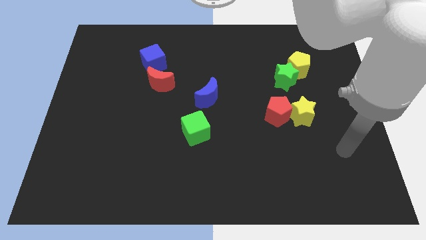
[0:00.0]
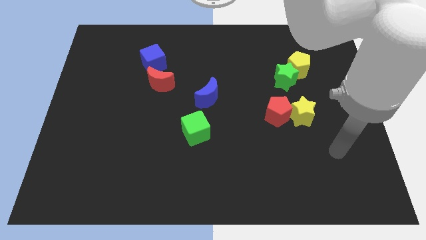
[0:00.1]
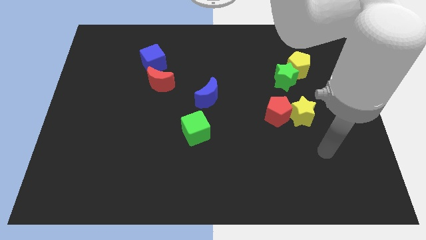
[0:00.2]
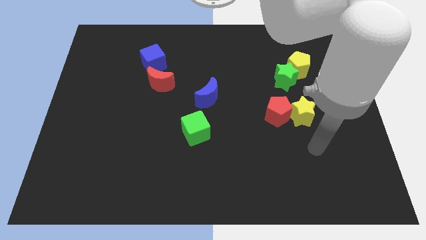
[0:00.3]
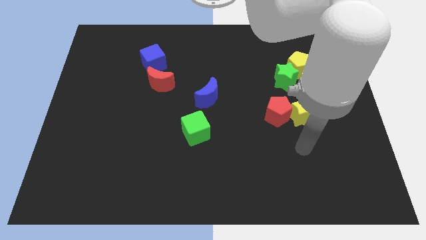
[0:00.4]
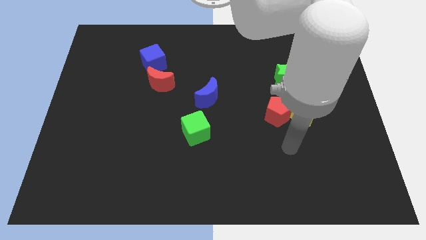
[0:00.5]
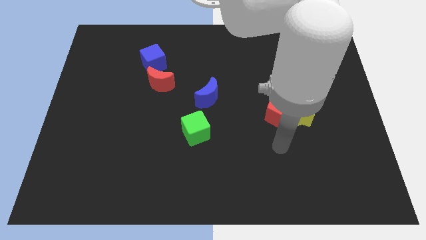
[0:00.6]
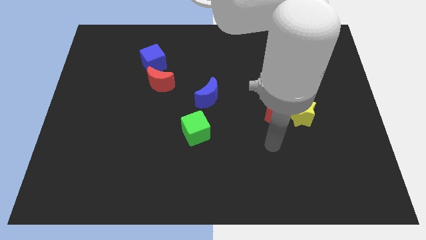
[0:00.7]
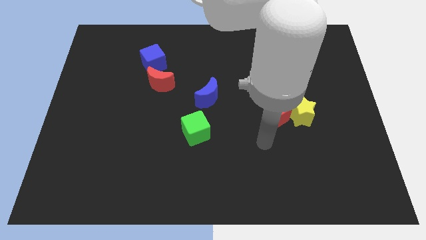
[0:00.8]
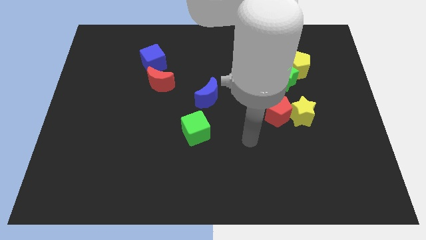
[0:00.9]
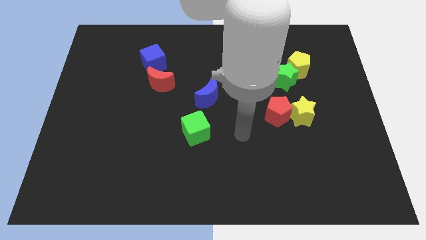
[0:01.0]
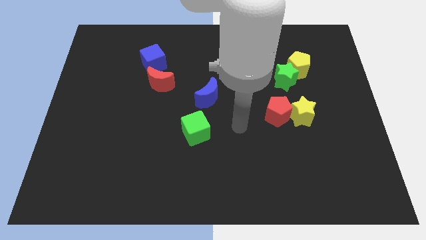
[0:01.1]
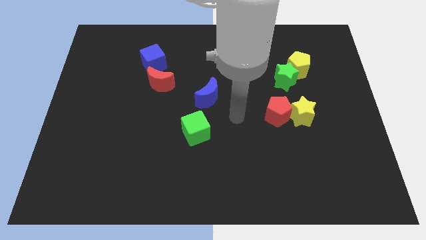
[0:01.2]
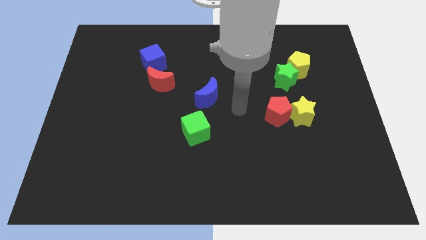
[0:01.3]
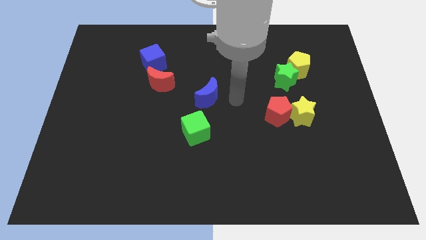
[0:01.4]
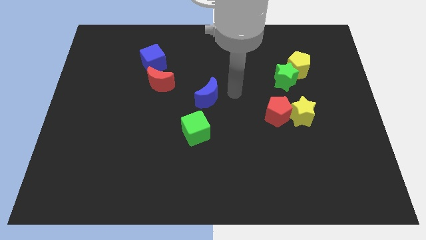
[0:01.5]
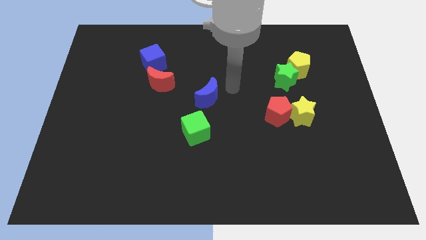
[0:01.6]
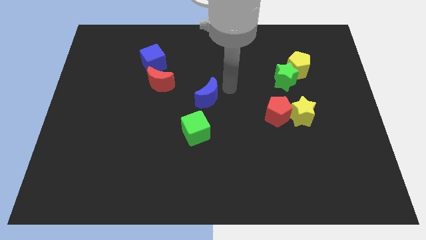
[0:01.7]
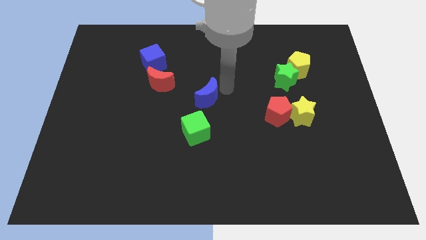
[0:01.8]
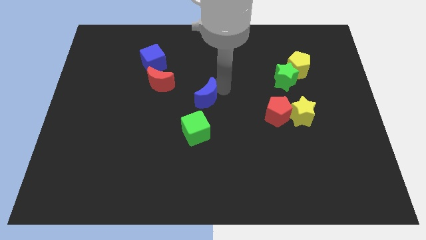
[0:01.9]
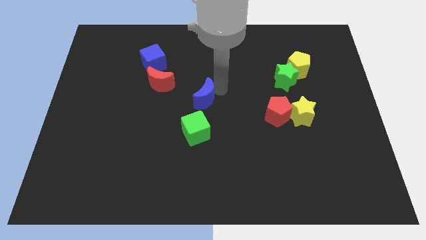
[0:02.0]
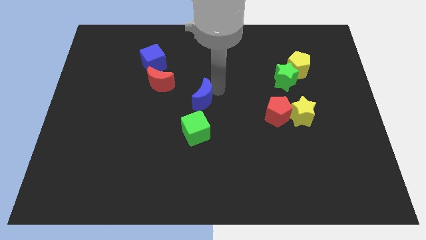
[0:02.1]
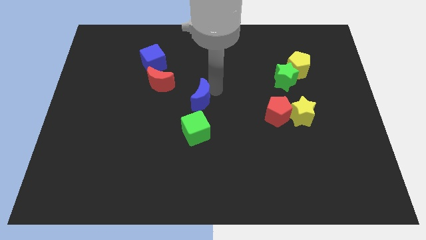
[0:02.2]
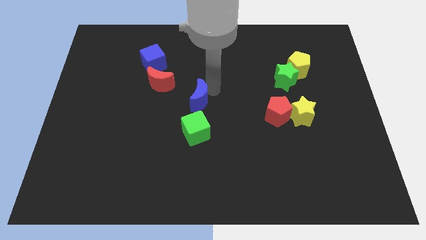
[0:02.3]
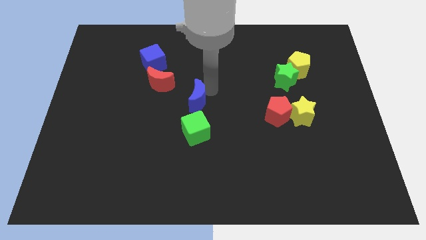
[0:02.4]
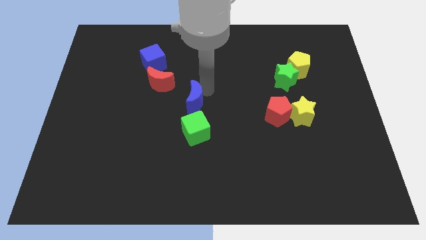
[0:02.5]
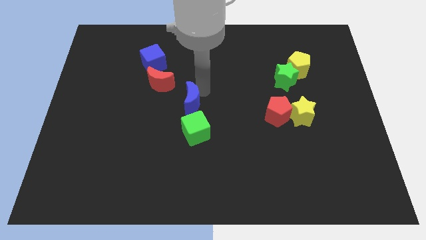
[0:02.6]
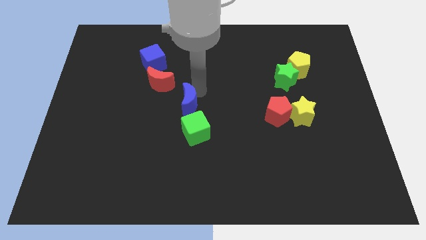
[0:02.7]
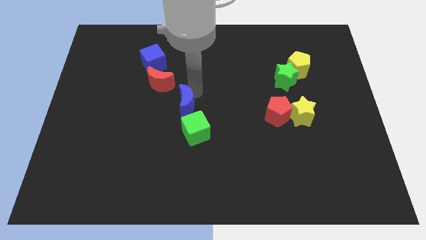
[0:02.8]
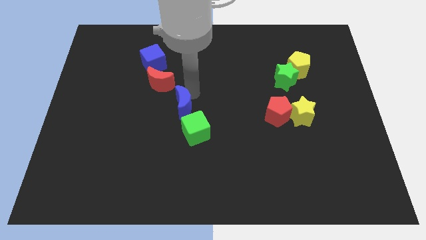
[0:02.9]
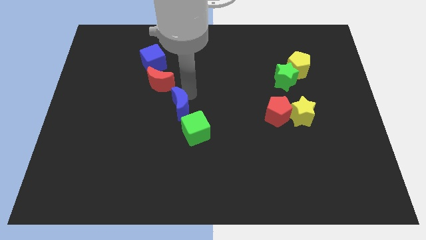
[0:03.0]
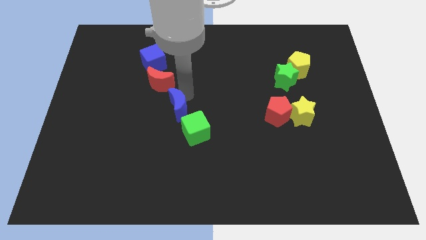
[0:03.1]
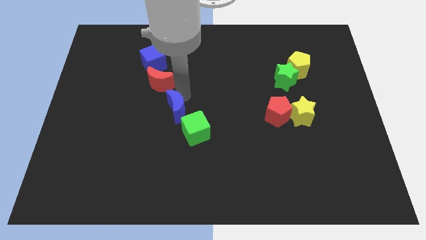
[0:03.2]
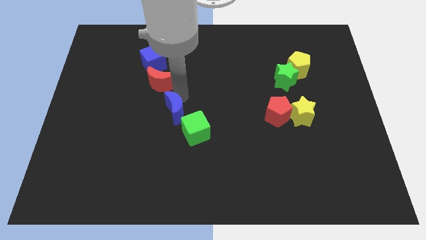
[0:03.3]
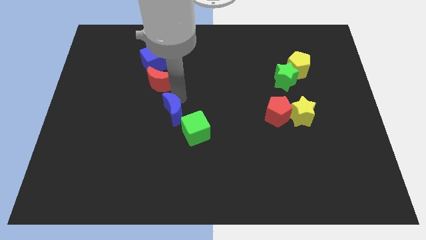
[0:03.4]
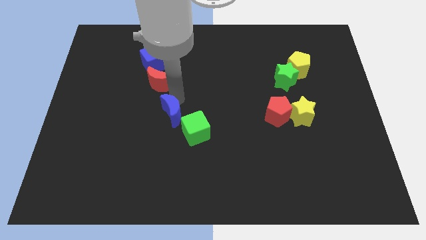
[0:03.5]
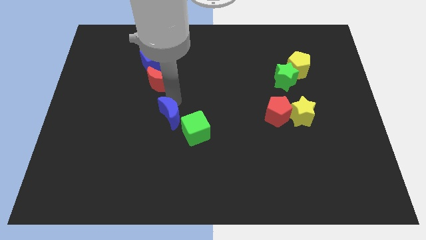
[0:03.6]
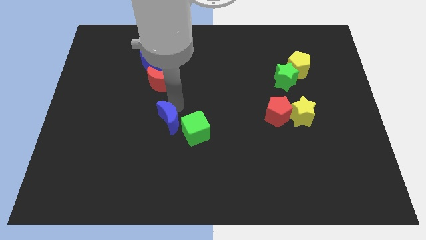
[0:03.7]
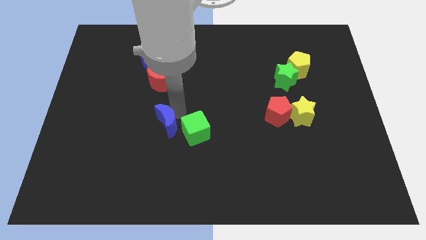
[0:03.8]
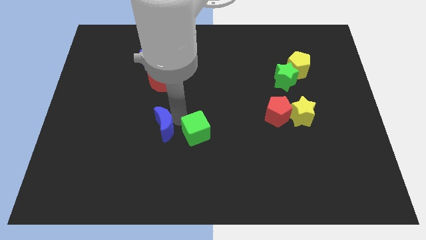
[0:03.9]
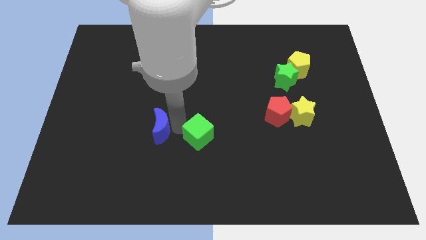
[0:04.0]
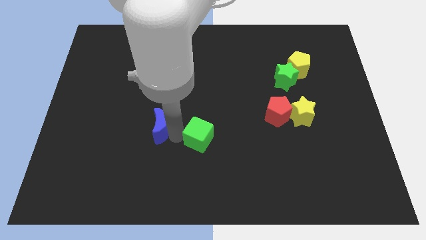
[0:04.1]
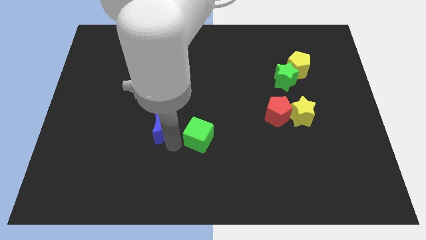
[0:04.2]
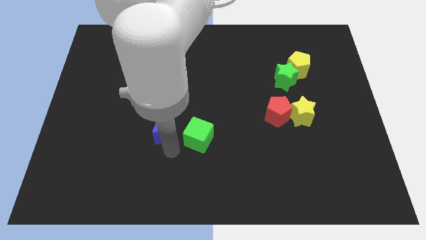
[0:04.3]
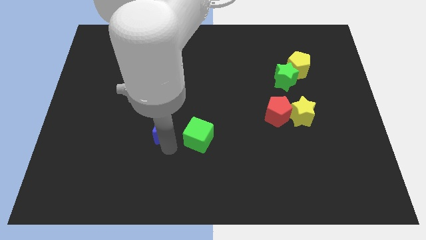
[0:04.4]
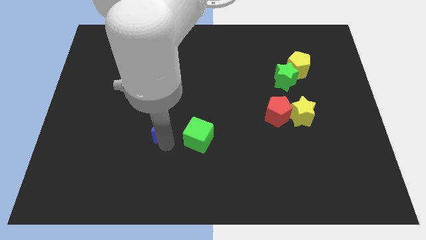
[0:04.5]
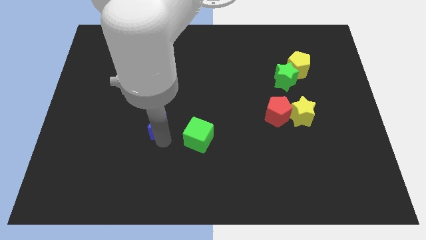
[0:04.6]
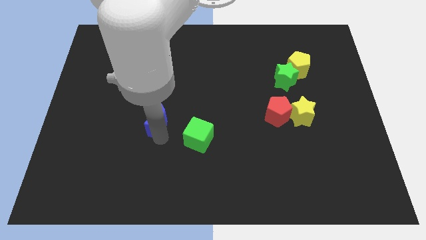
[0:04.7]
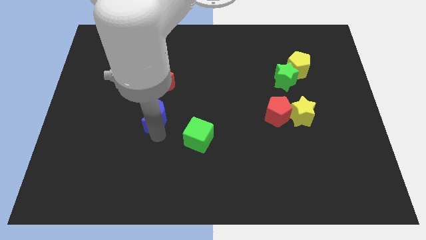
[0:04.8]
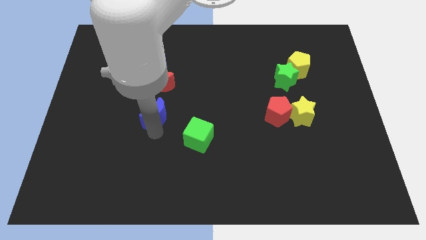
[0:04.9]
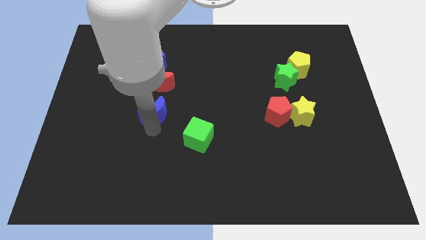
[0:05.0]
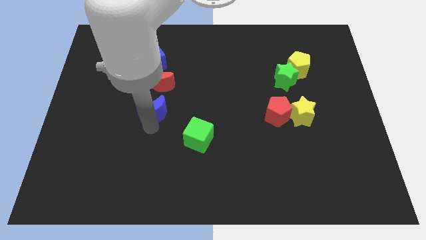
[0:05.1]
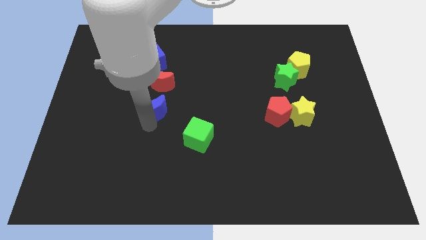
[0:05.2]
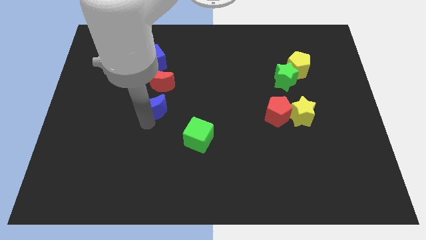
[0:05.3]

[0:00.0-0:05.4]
push the blue moon to the bottom side of the blue cube

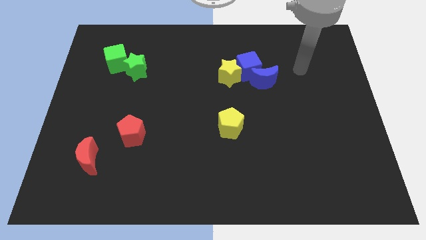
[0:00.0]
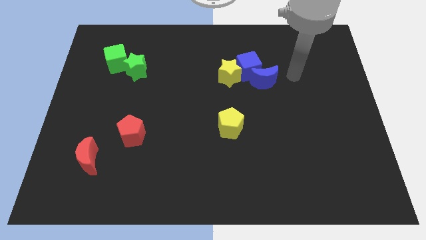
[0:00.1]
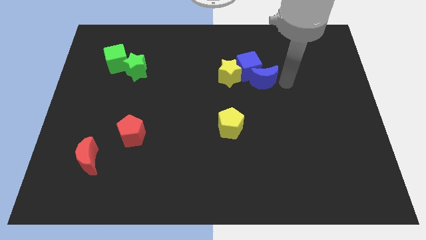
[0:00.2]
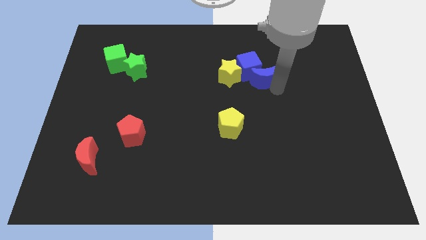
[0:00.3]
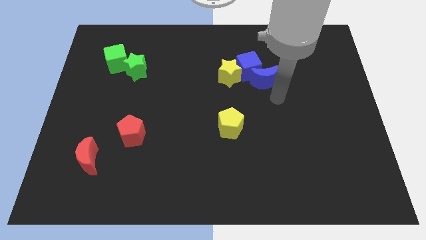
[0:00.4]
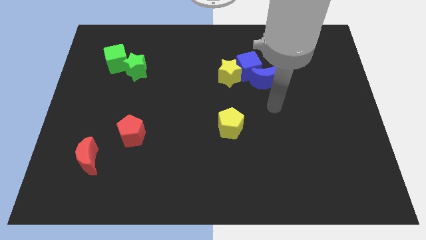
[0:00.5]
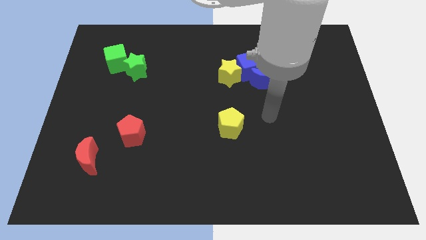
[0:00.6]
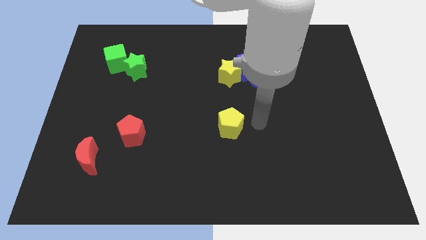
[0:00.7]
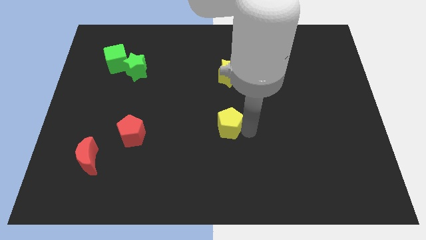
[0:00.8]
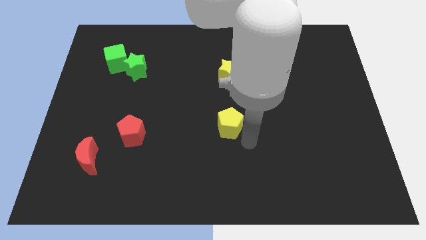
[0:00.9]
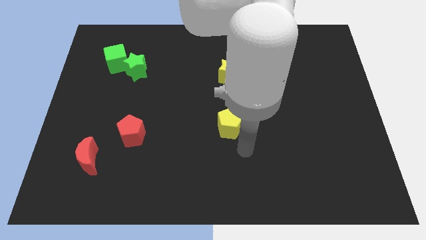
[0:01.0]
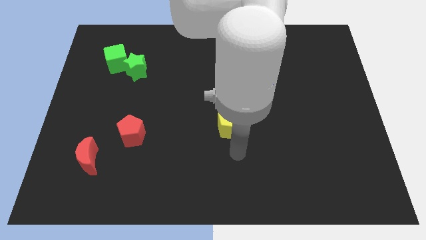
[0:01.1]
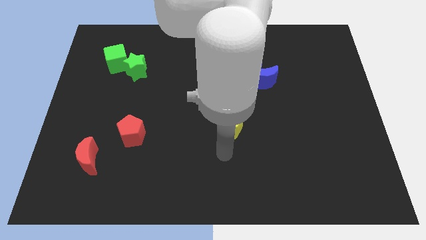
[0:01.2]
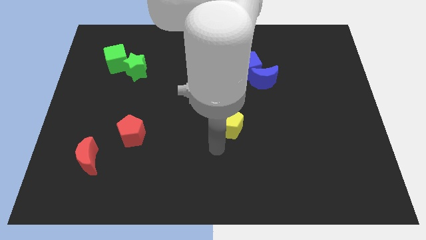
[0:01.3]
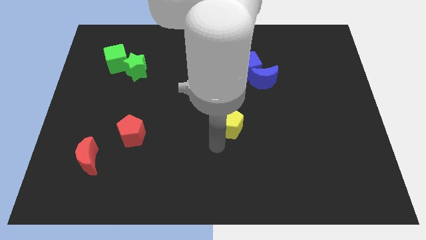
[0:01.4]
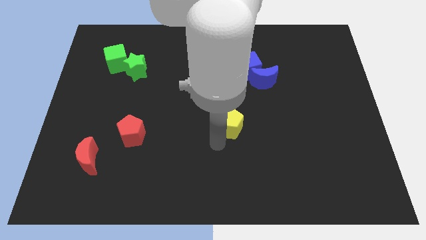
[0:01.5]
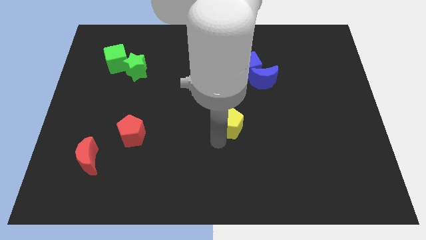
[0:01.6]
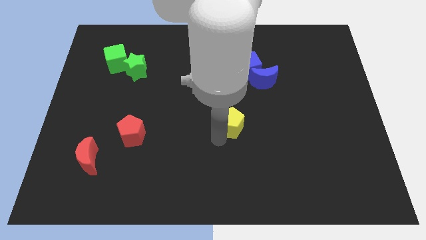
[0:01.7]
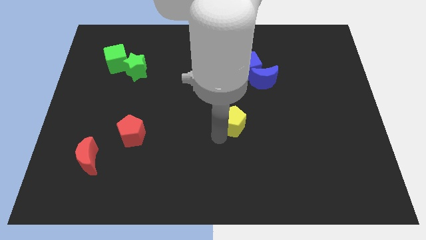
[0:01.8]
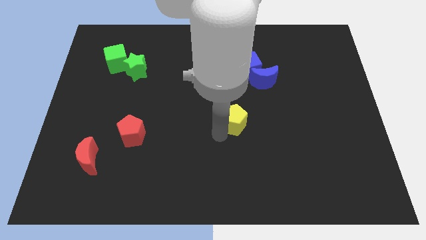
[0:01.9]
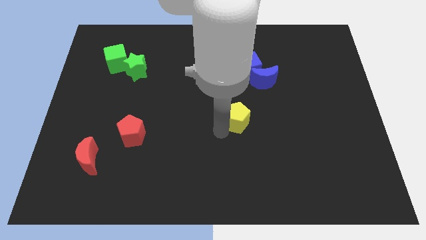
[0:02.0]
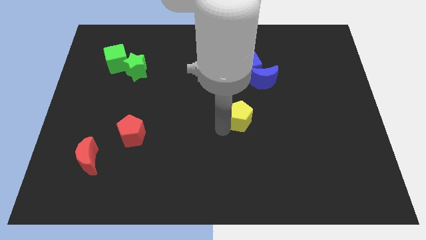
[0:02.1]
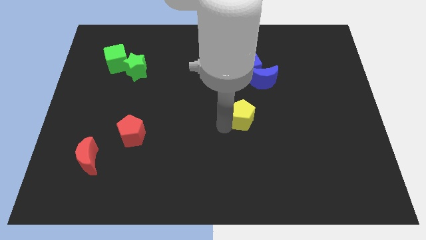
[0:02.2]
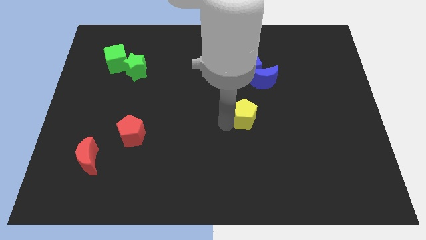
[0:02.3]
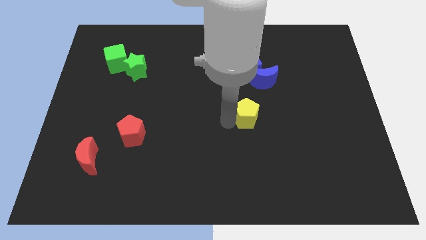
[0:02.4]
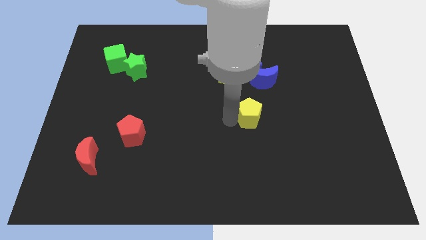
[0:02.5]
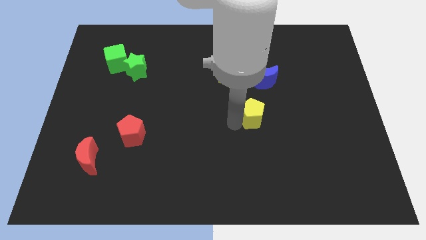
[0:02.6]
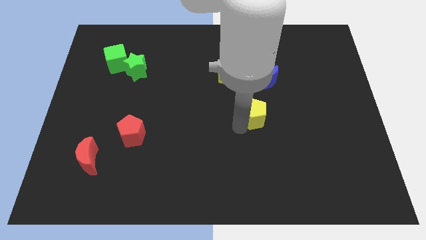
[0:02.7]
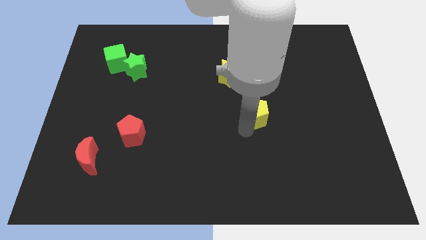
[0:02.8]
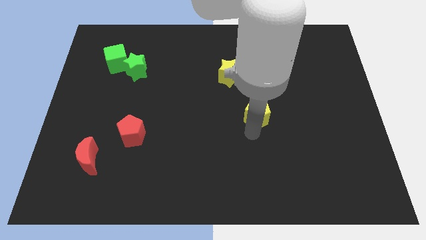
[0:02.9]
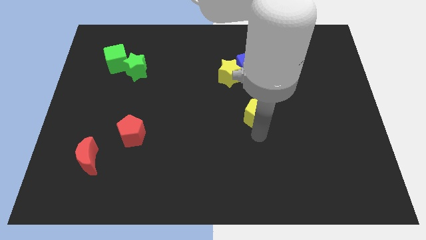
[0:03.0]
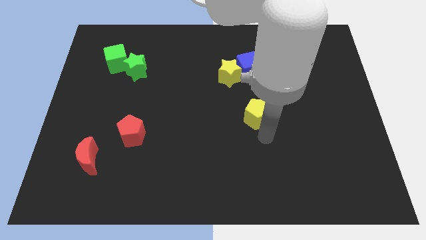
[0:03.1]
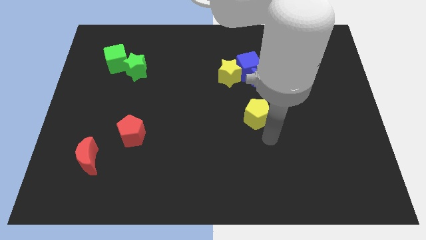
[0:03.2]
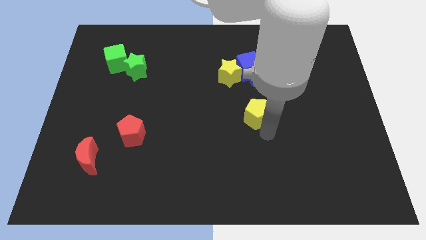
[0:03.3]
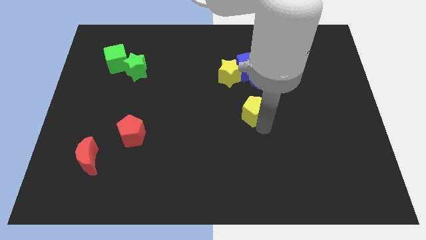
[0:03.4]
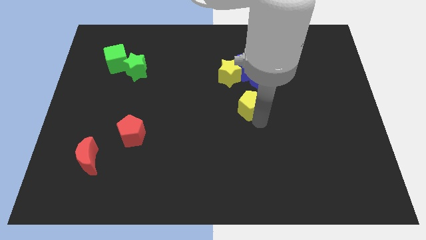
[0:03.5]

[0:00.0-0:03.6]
slide the yellow pentagon to the bottom left side of the blue moon
